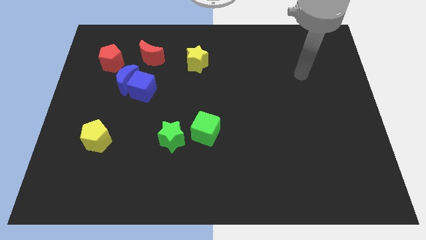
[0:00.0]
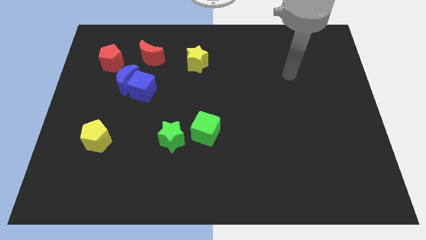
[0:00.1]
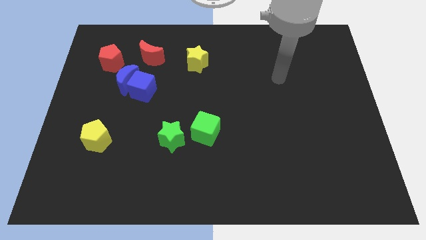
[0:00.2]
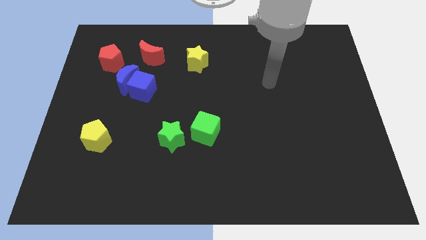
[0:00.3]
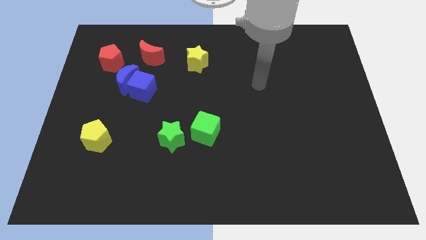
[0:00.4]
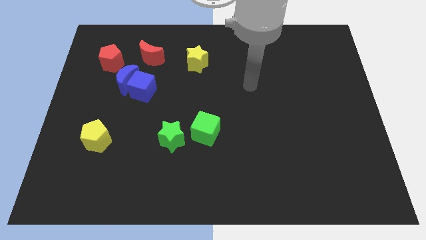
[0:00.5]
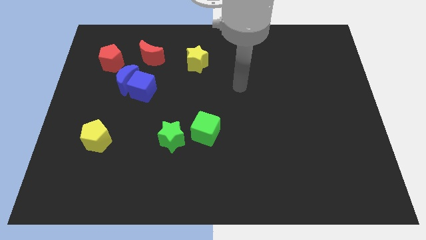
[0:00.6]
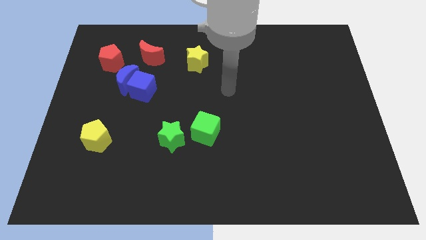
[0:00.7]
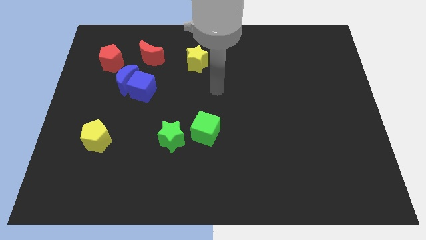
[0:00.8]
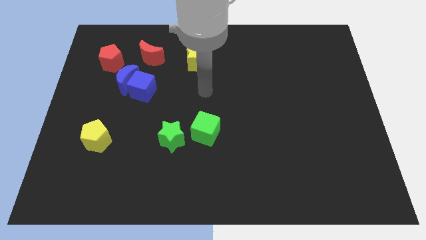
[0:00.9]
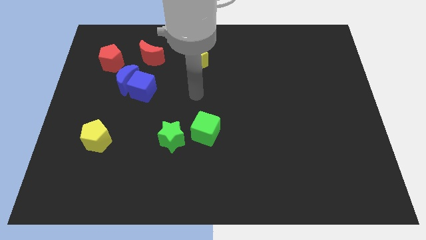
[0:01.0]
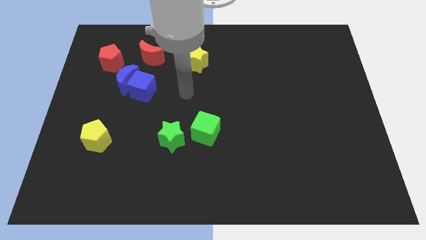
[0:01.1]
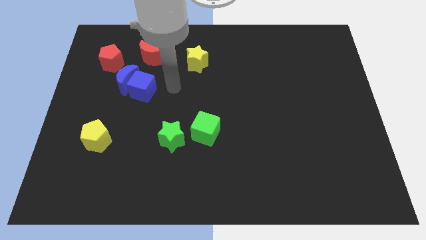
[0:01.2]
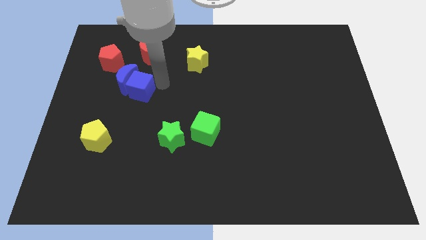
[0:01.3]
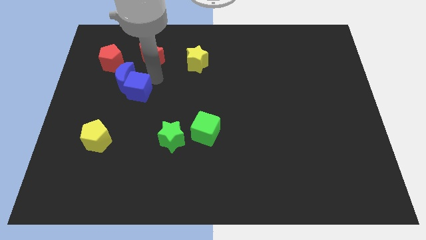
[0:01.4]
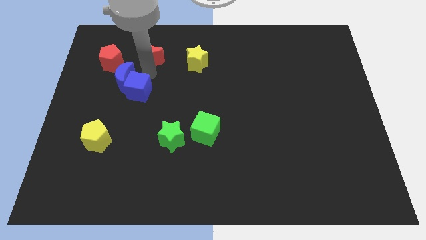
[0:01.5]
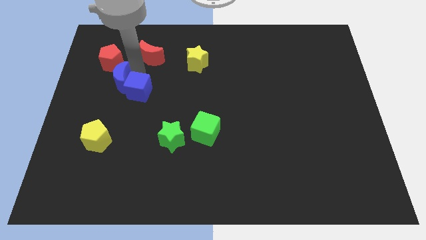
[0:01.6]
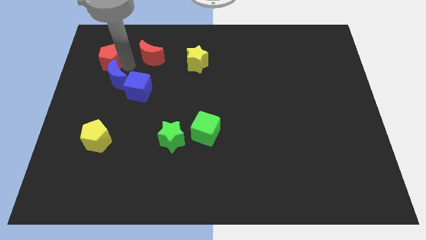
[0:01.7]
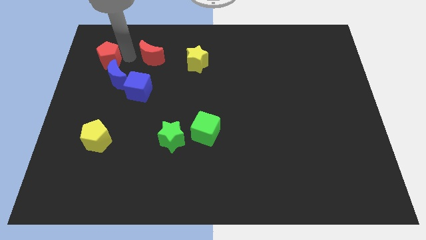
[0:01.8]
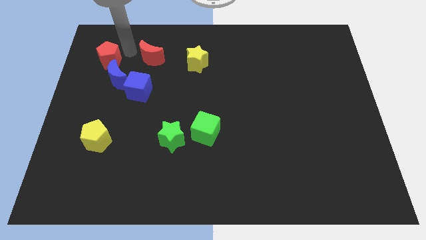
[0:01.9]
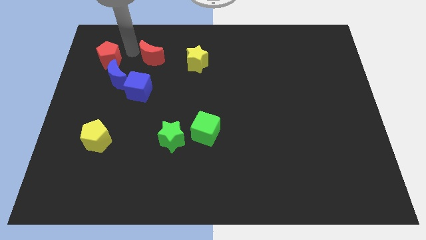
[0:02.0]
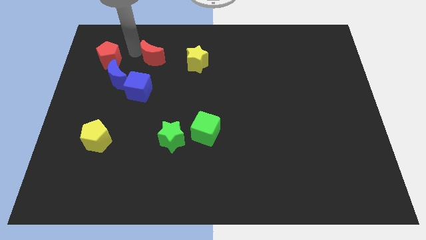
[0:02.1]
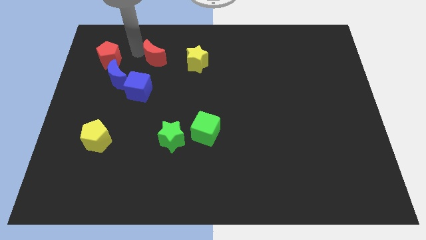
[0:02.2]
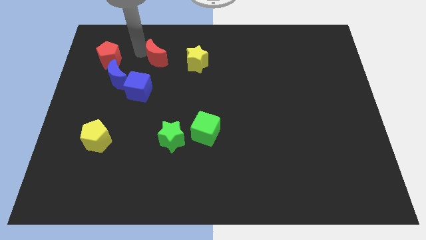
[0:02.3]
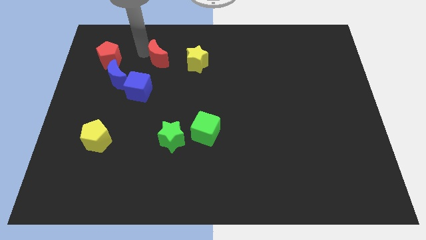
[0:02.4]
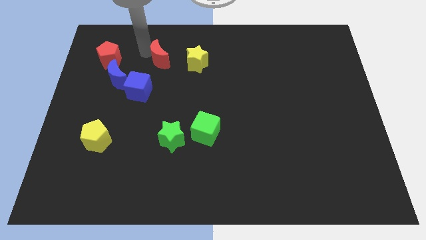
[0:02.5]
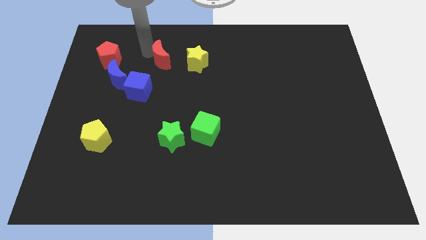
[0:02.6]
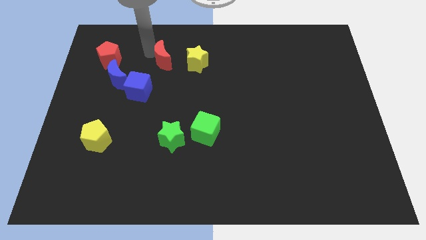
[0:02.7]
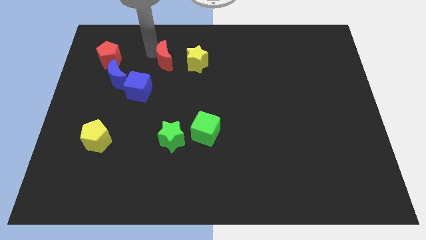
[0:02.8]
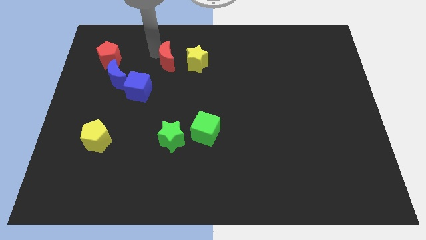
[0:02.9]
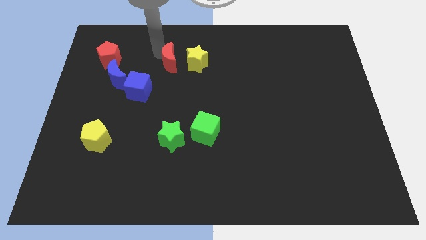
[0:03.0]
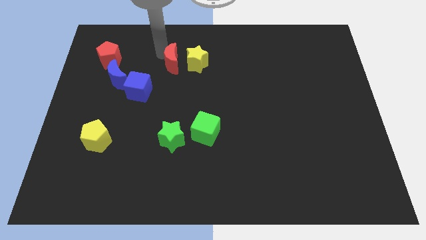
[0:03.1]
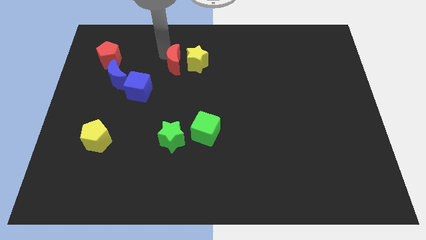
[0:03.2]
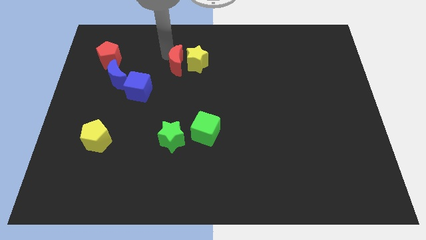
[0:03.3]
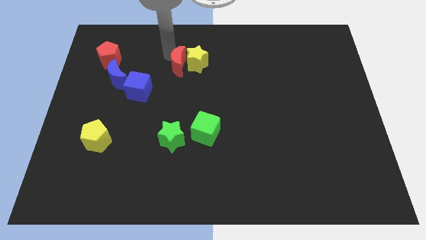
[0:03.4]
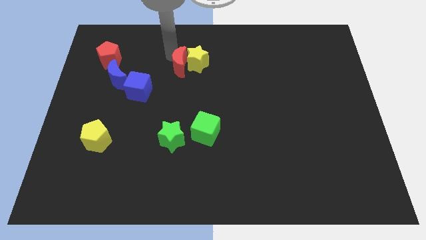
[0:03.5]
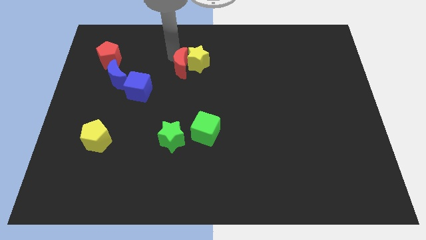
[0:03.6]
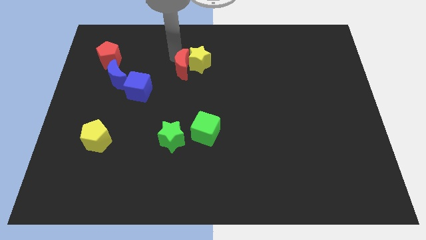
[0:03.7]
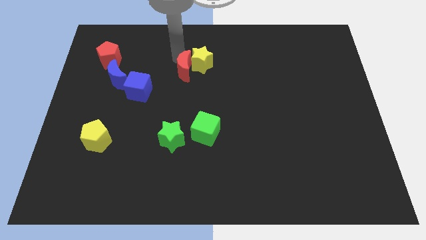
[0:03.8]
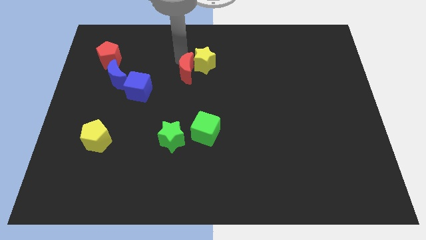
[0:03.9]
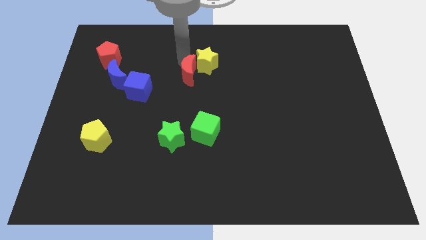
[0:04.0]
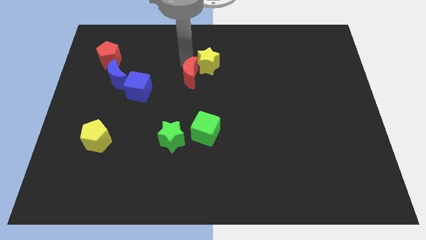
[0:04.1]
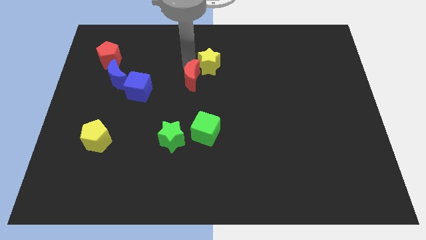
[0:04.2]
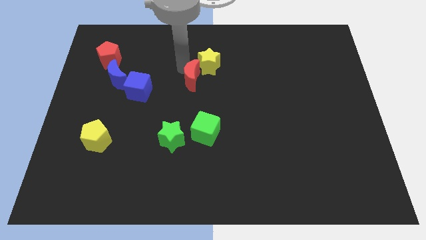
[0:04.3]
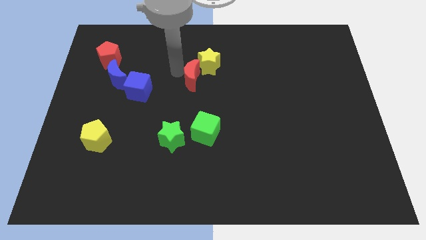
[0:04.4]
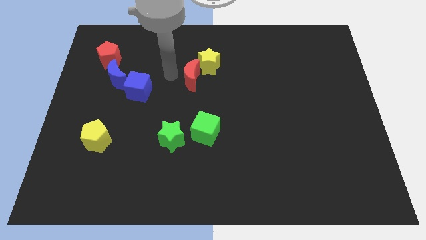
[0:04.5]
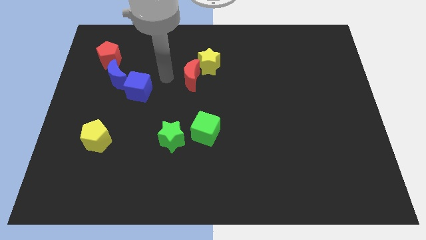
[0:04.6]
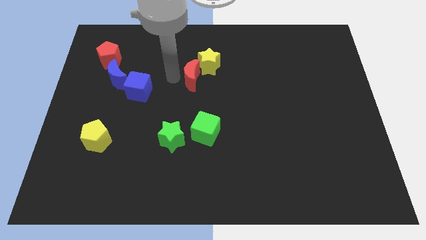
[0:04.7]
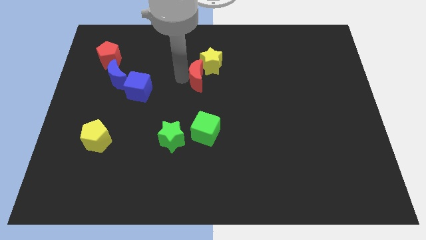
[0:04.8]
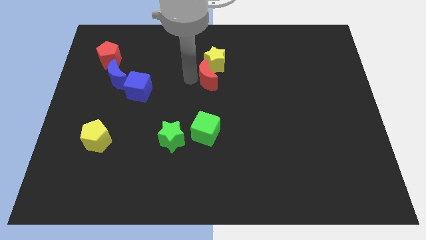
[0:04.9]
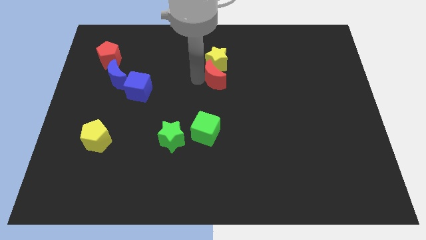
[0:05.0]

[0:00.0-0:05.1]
push the red moon diagonally down and to the right of the yellow star

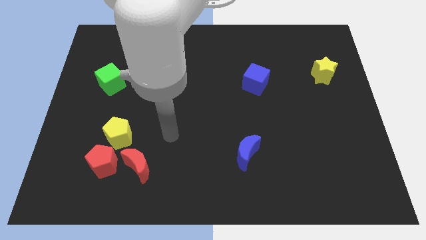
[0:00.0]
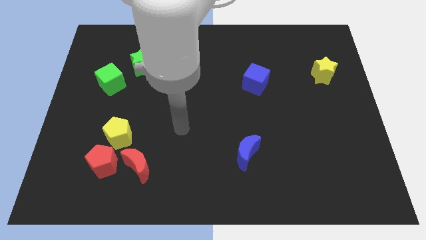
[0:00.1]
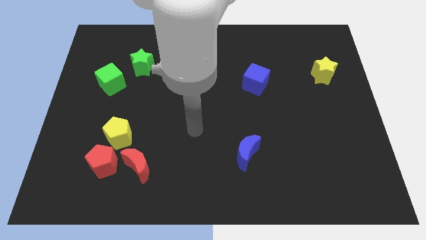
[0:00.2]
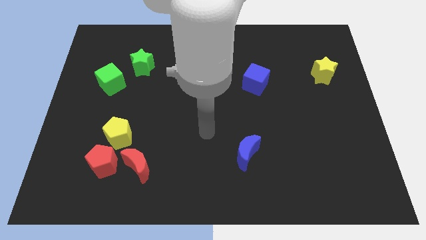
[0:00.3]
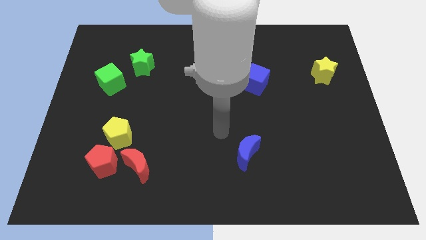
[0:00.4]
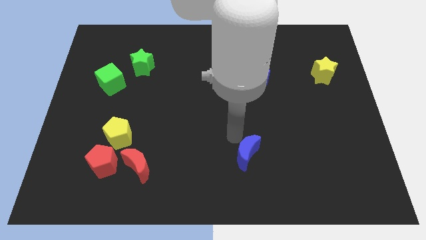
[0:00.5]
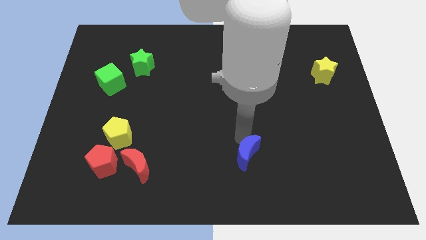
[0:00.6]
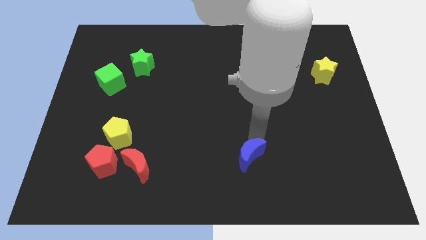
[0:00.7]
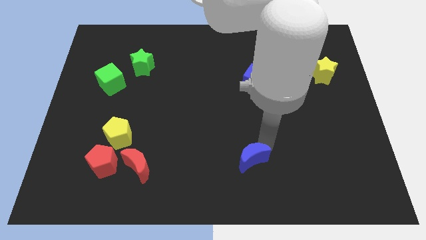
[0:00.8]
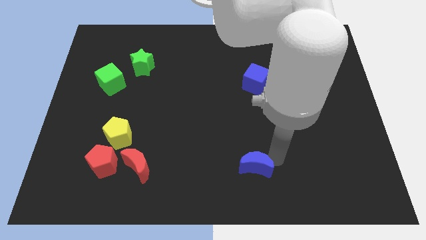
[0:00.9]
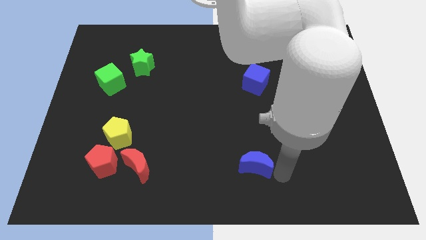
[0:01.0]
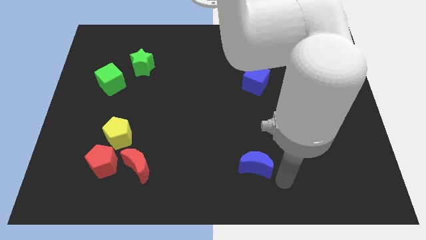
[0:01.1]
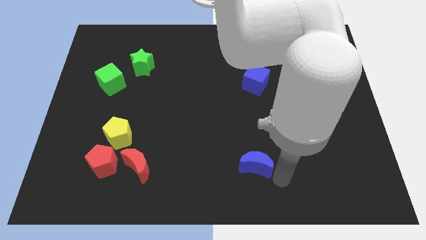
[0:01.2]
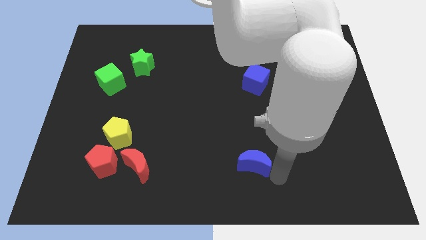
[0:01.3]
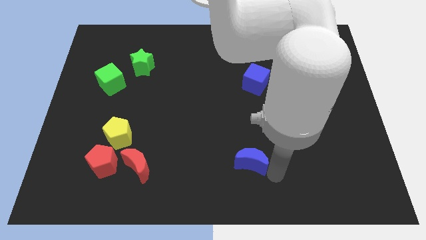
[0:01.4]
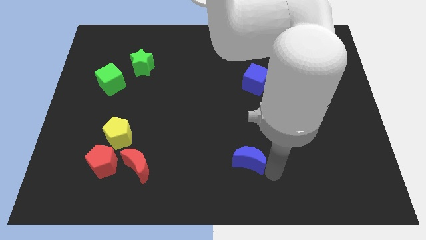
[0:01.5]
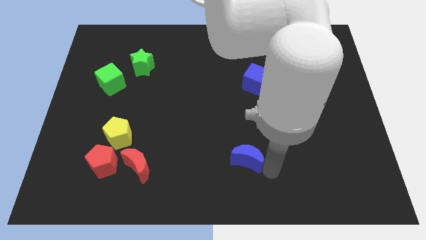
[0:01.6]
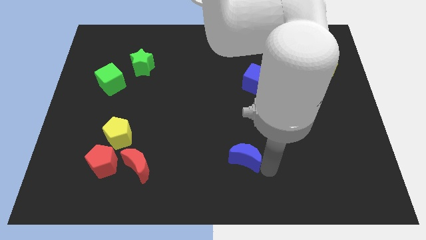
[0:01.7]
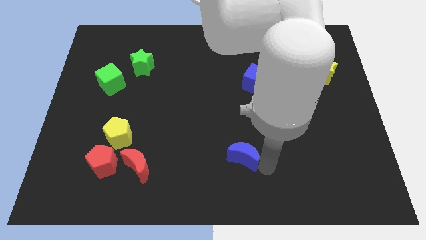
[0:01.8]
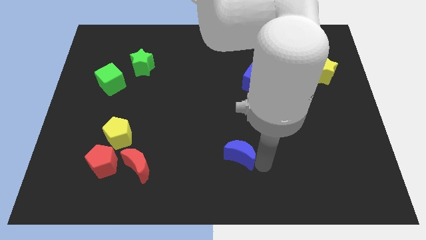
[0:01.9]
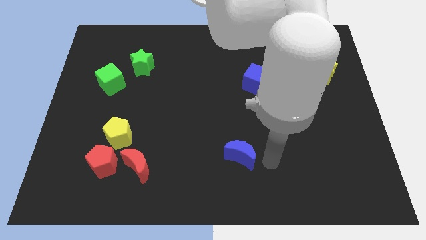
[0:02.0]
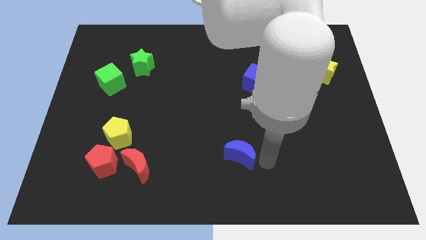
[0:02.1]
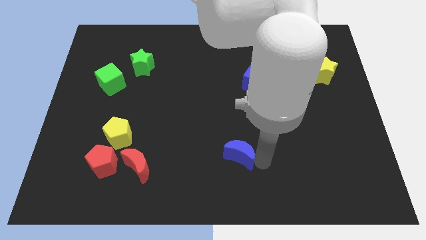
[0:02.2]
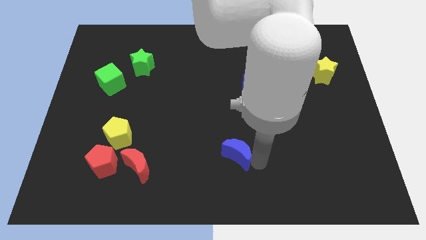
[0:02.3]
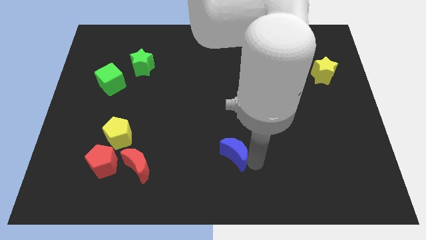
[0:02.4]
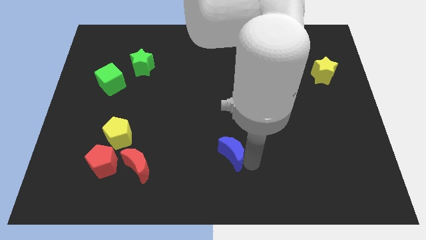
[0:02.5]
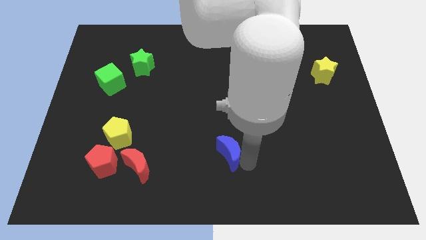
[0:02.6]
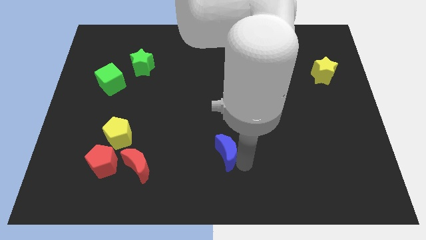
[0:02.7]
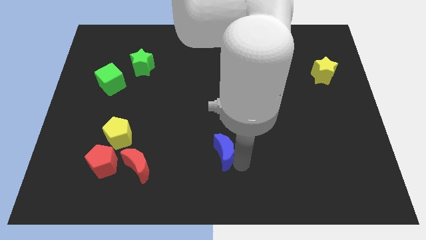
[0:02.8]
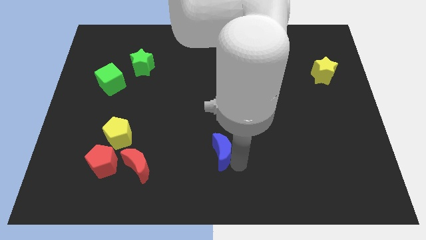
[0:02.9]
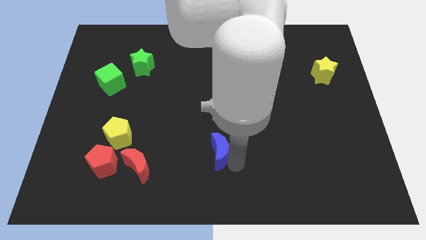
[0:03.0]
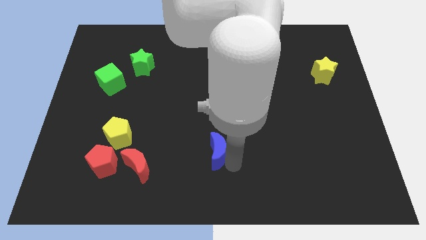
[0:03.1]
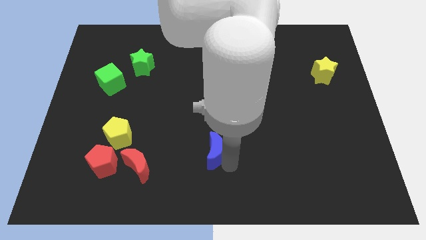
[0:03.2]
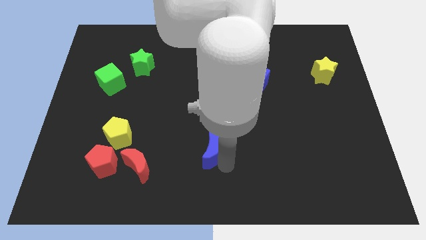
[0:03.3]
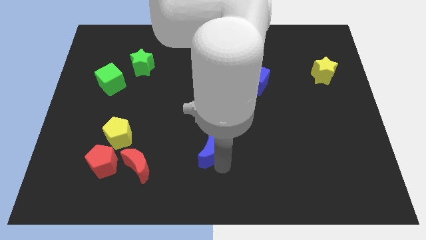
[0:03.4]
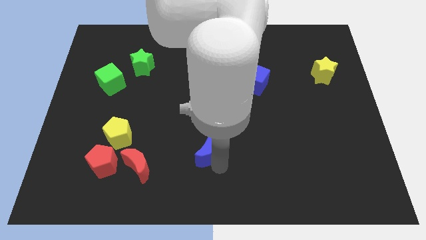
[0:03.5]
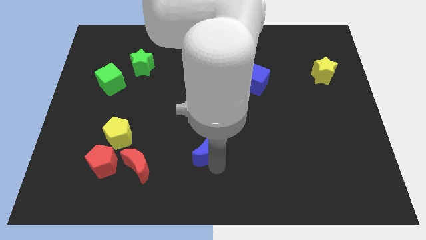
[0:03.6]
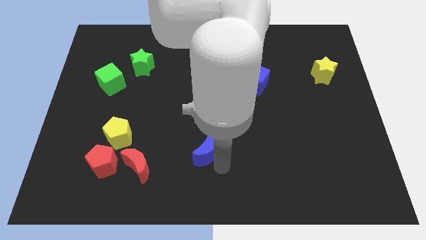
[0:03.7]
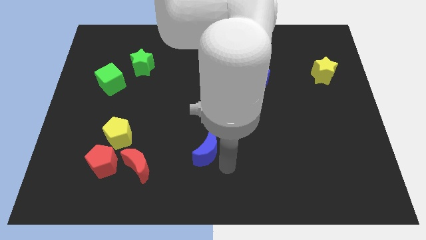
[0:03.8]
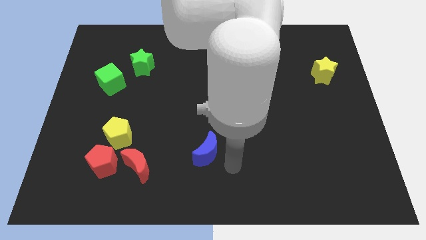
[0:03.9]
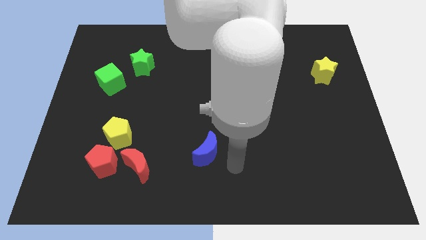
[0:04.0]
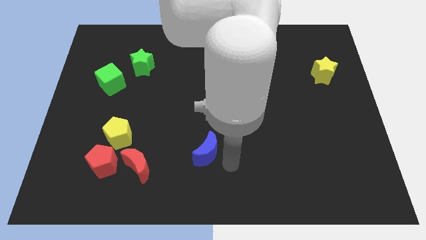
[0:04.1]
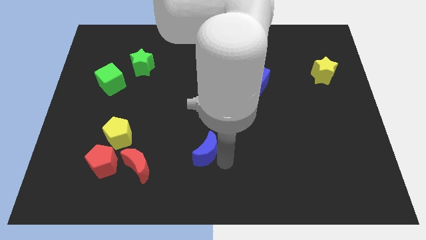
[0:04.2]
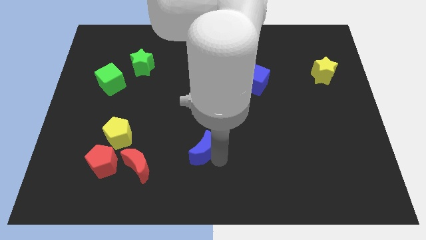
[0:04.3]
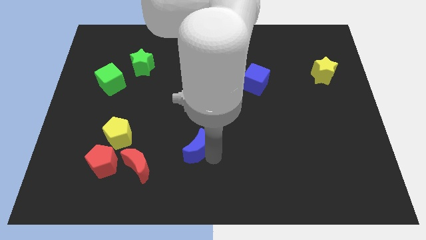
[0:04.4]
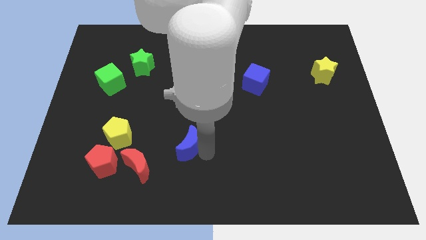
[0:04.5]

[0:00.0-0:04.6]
put the blue moon to the top right side of the red moon
